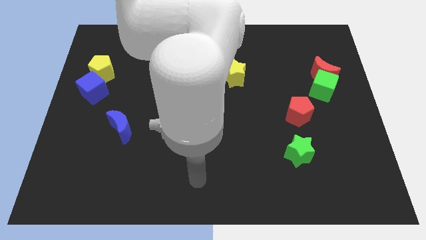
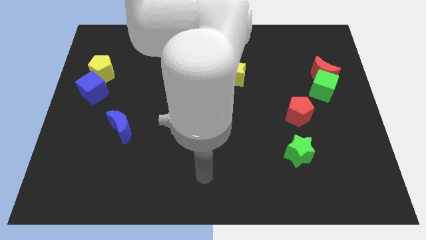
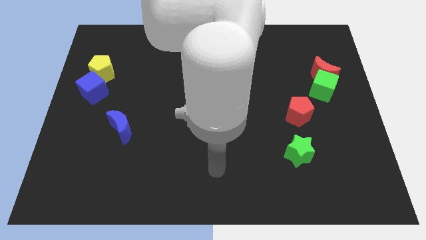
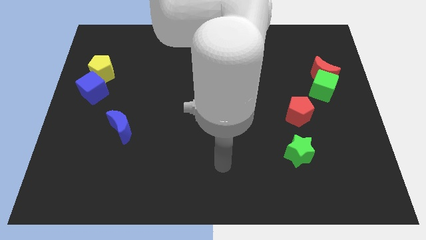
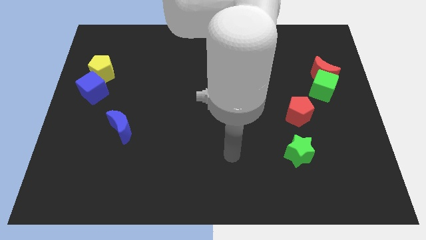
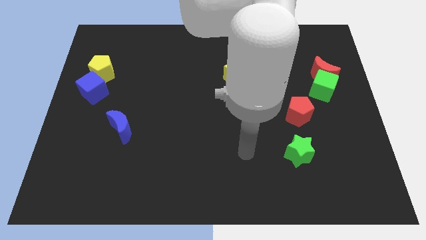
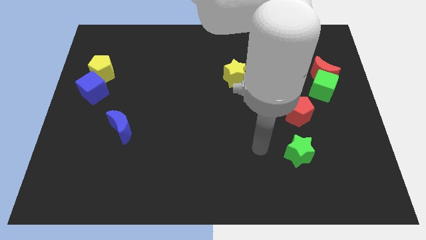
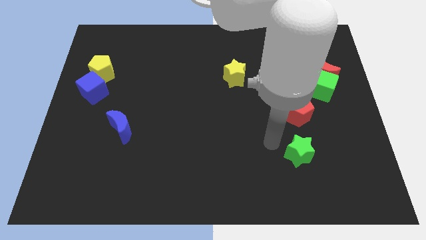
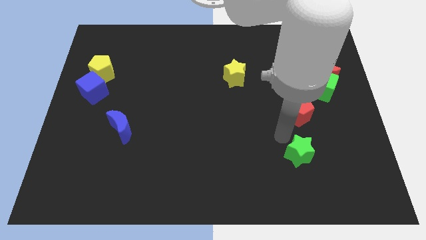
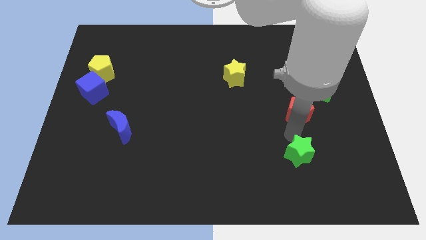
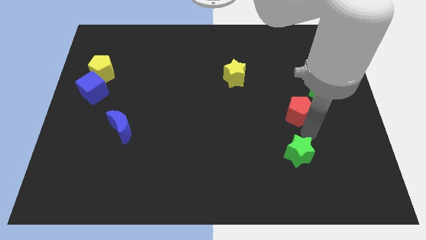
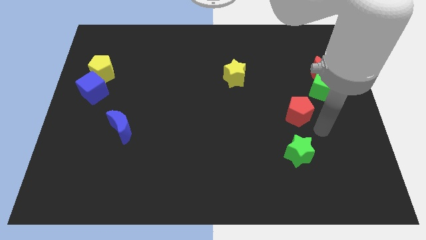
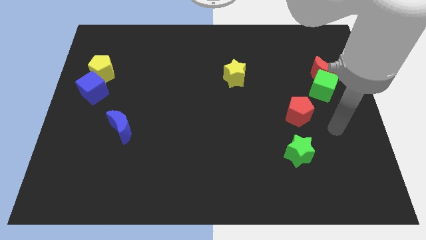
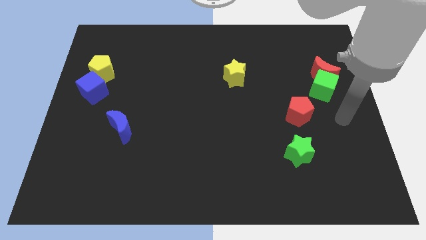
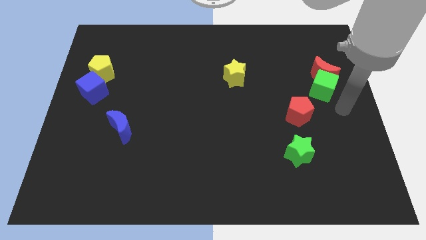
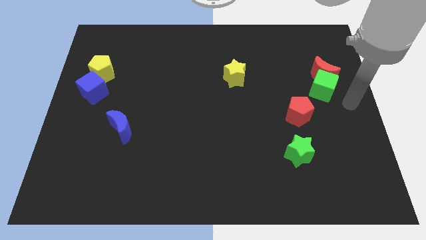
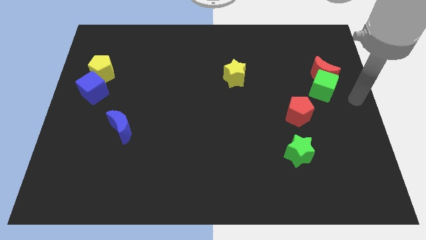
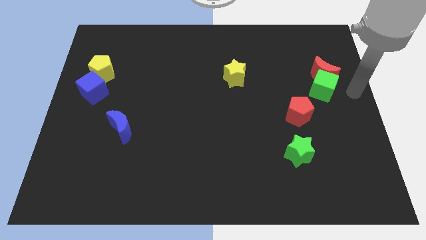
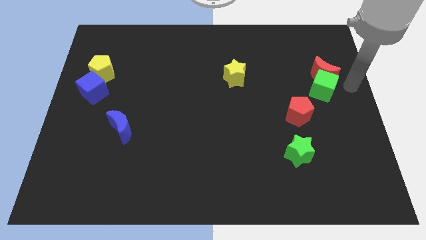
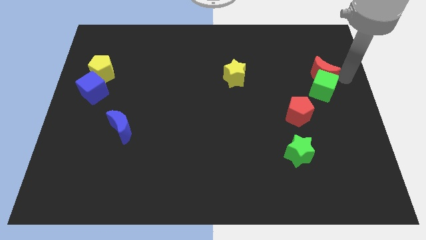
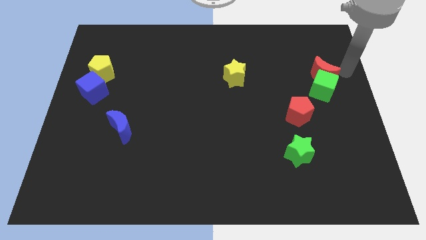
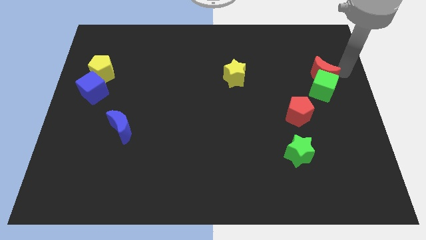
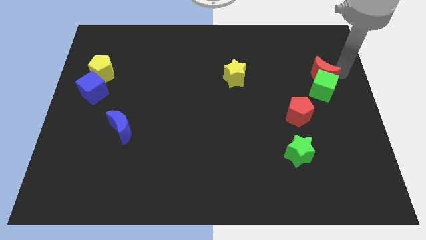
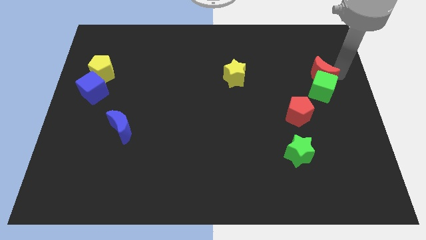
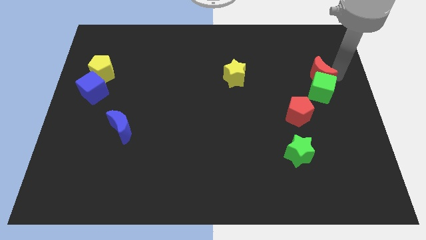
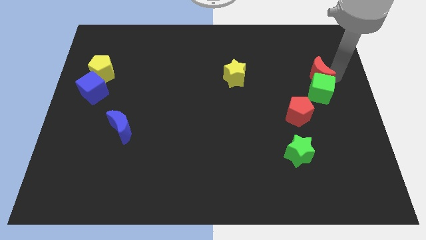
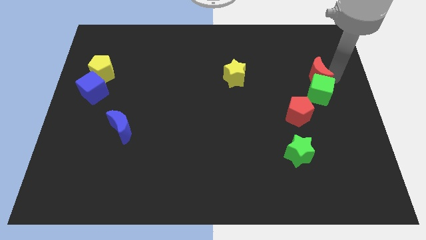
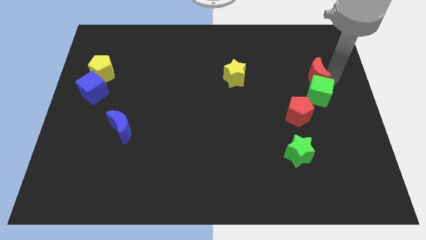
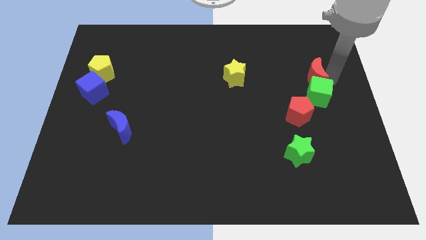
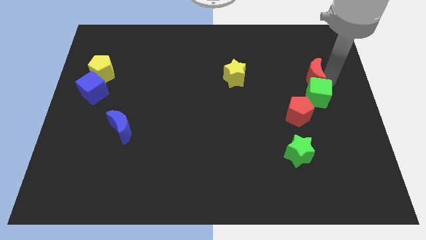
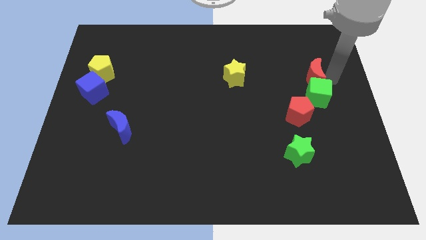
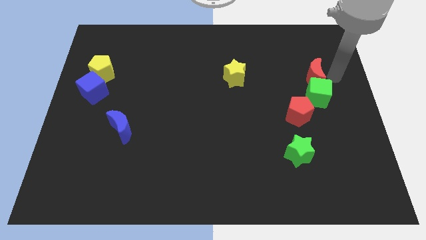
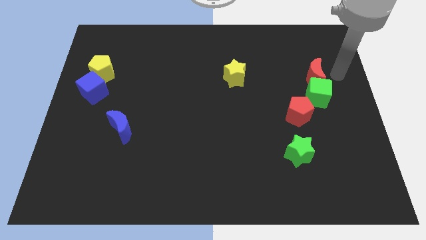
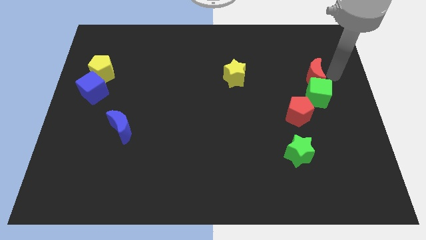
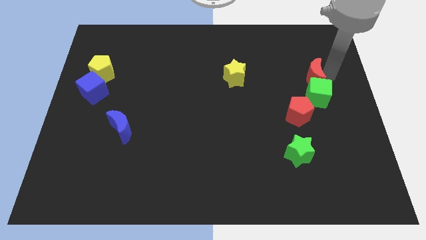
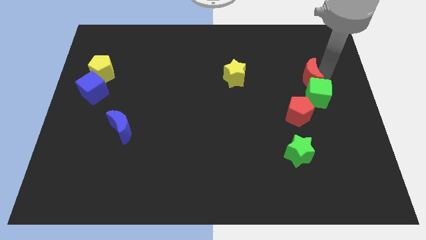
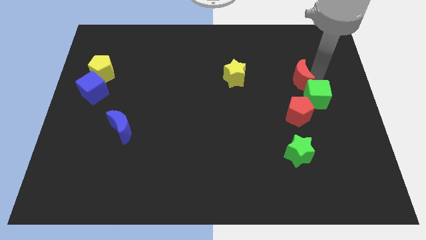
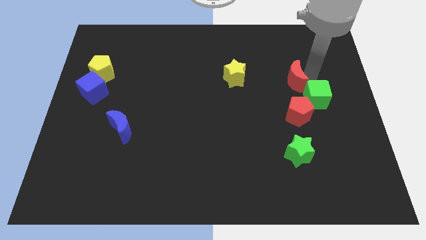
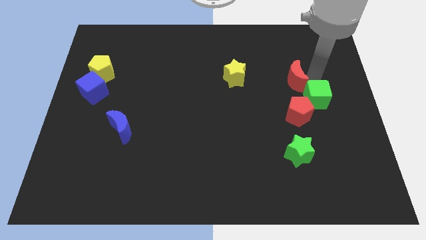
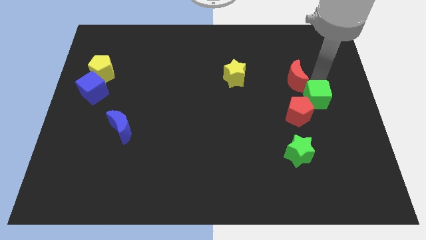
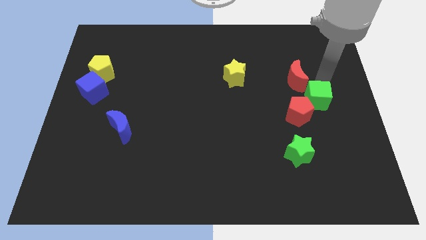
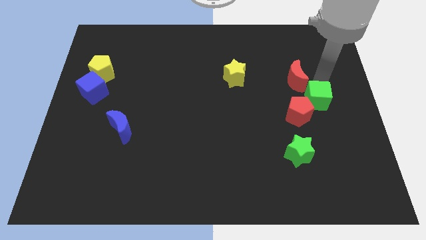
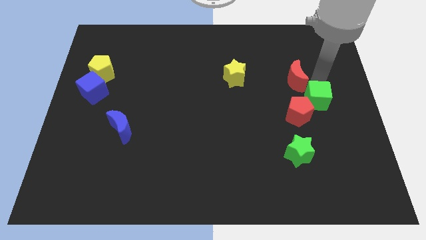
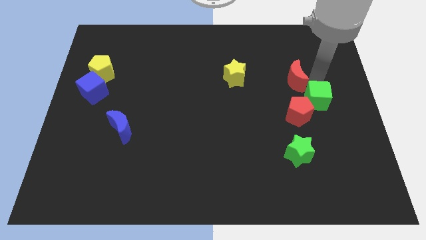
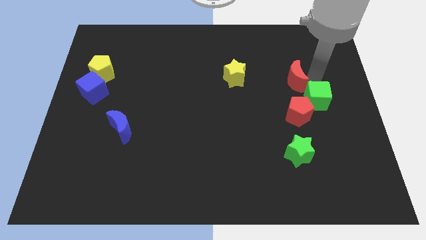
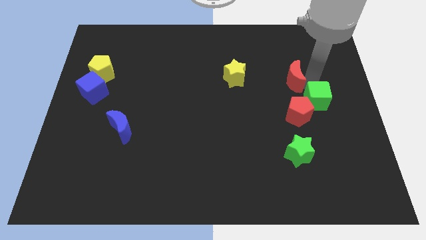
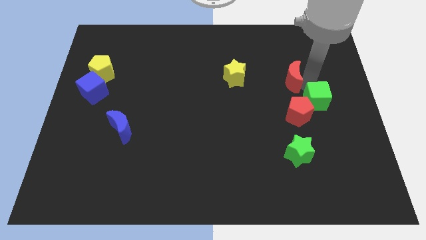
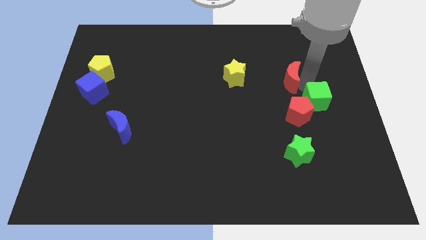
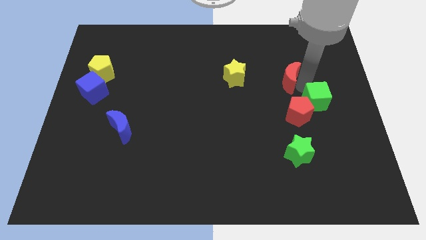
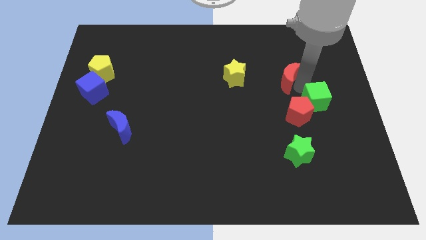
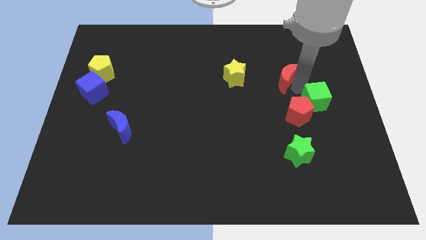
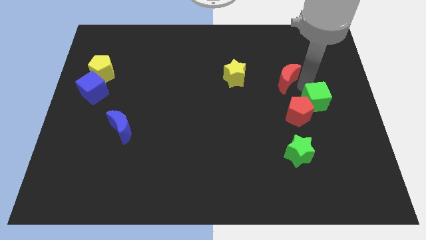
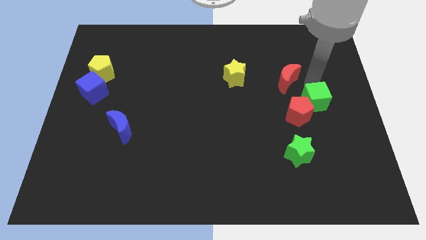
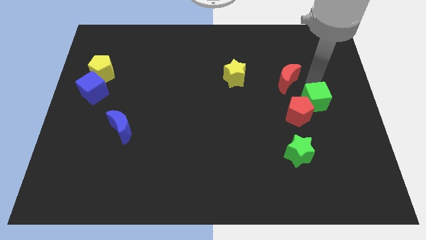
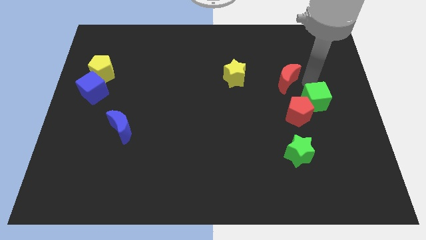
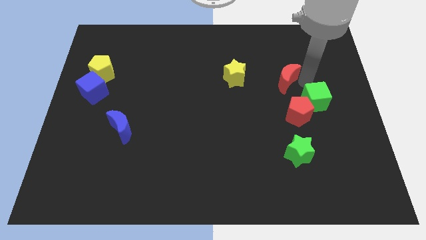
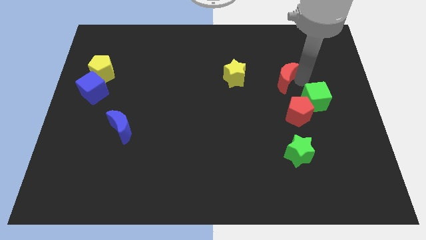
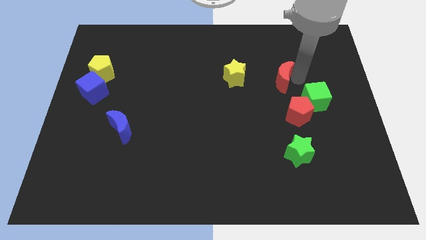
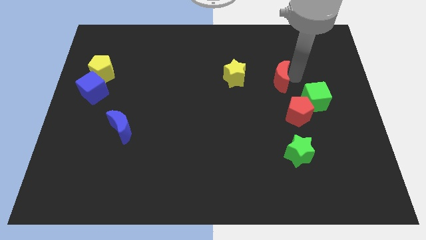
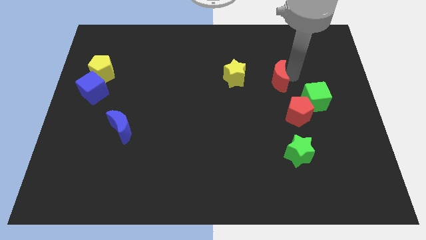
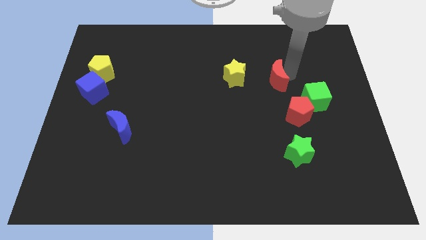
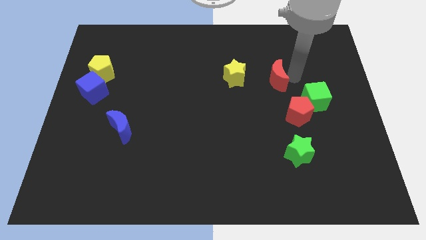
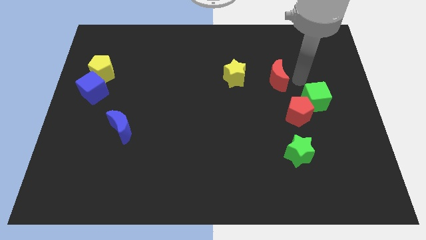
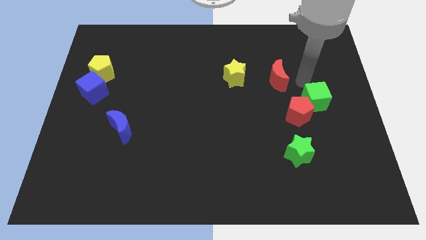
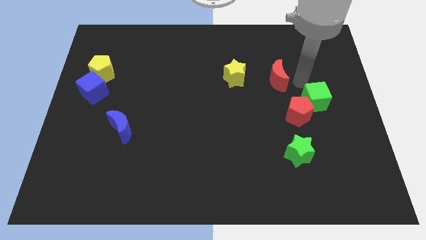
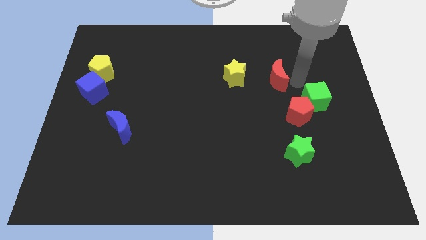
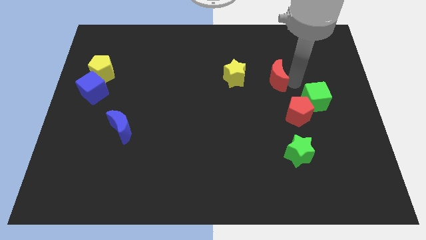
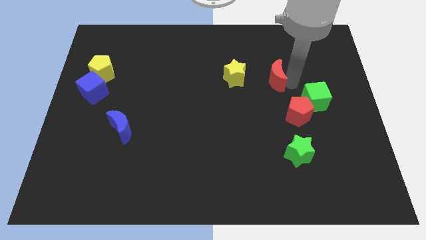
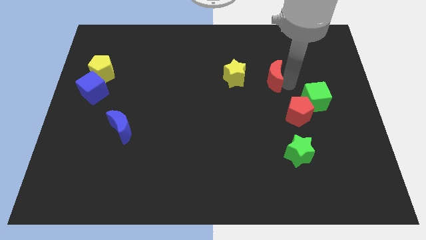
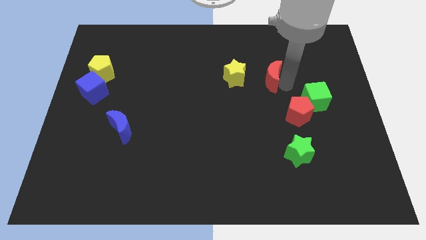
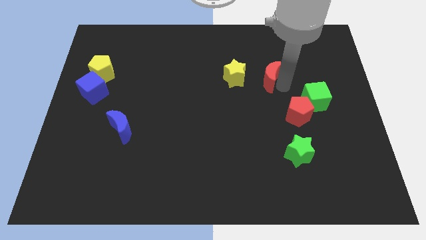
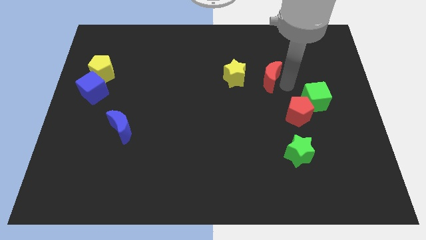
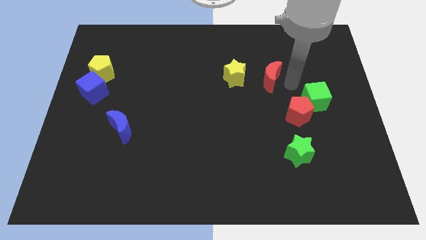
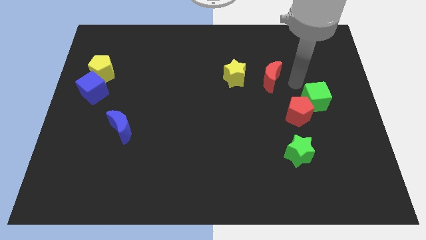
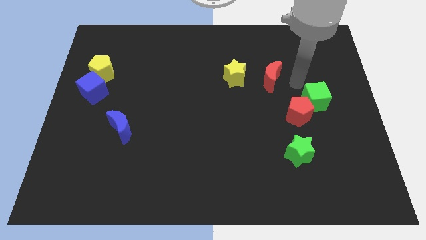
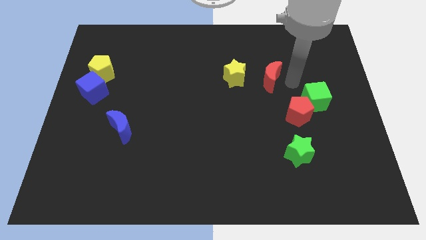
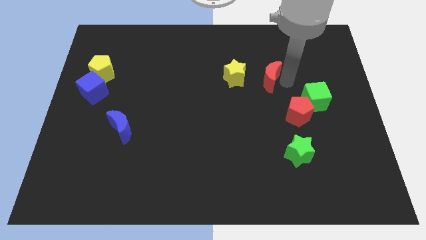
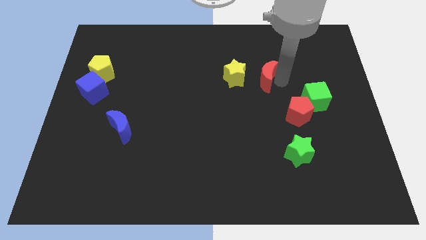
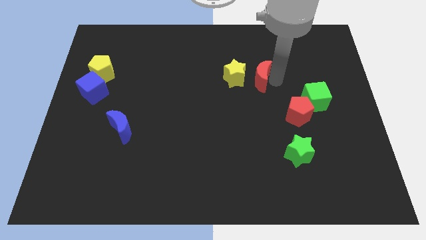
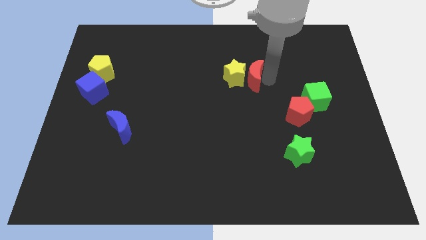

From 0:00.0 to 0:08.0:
move the red moon close to the yellow star
